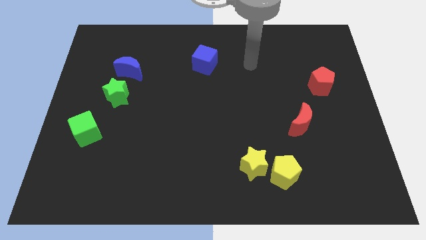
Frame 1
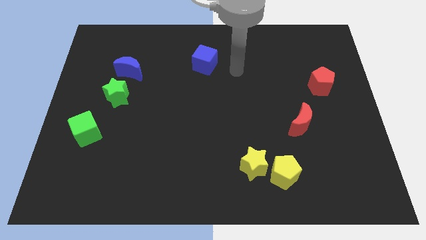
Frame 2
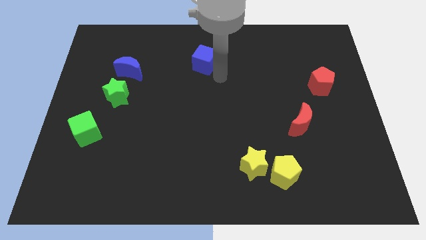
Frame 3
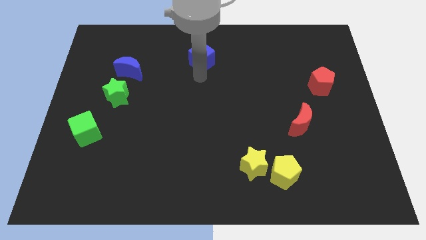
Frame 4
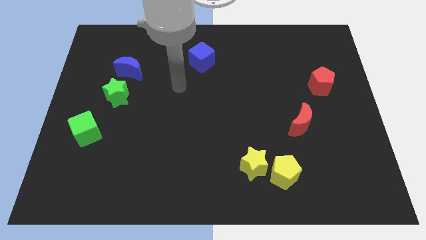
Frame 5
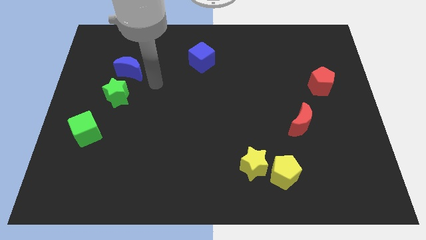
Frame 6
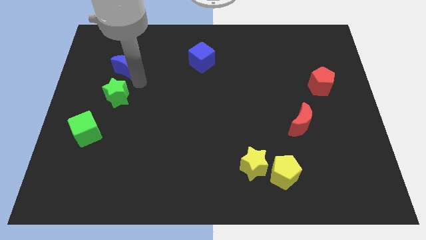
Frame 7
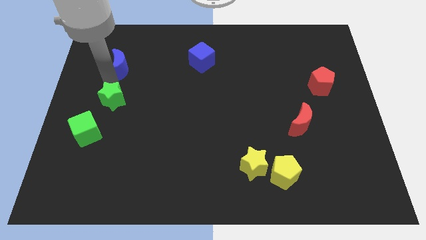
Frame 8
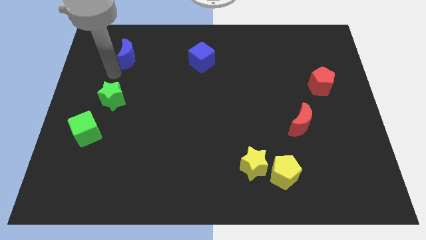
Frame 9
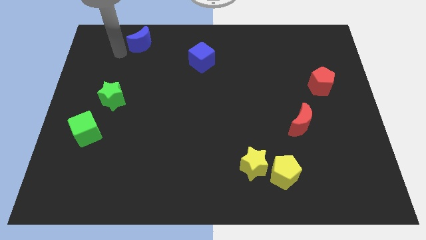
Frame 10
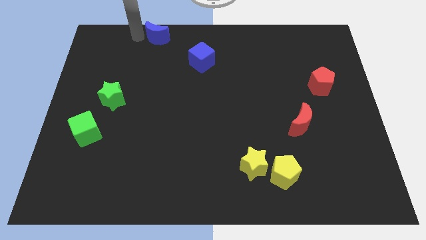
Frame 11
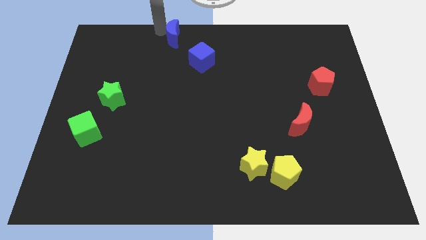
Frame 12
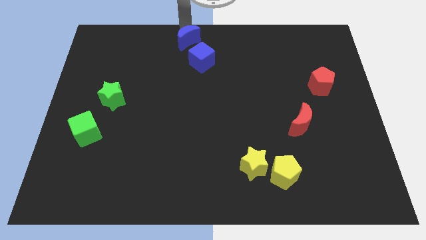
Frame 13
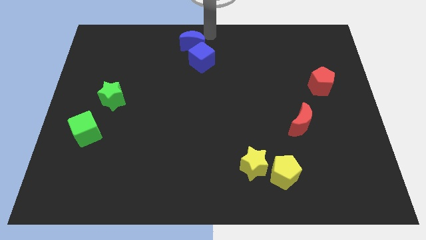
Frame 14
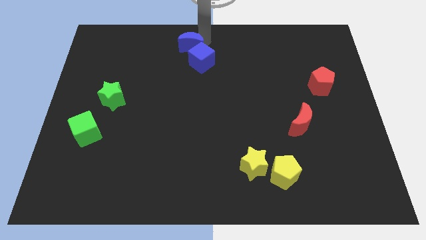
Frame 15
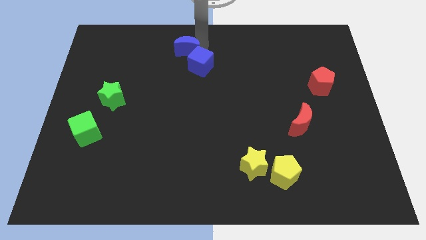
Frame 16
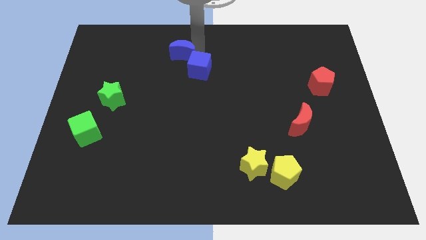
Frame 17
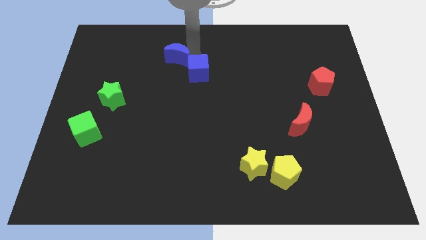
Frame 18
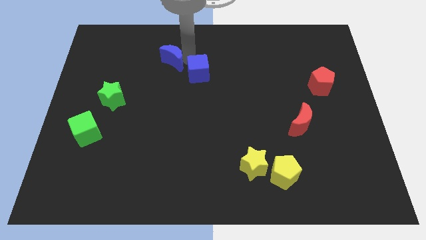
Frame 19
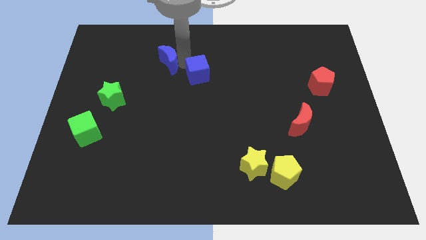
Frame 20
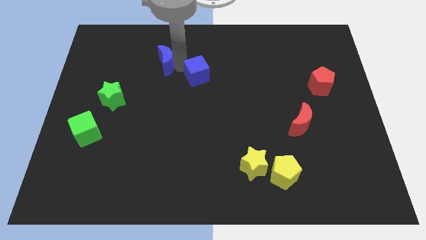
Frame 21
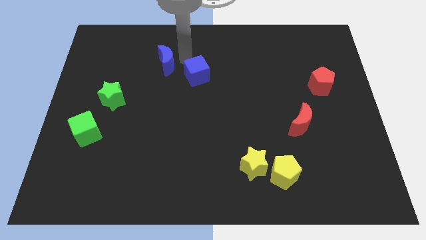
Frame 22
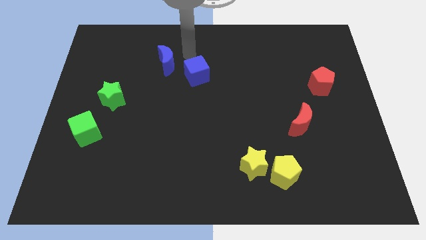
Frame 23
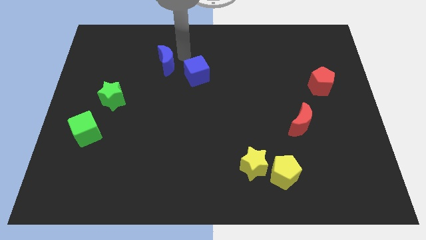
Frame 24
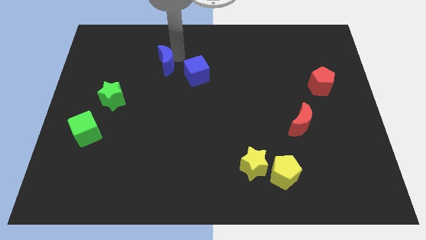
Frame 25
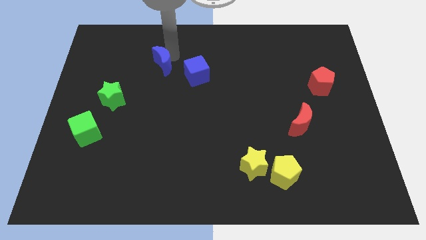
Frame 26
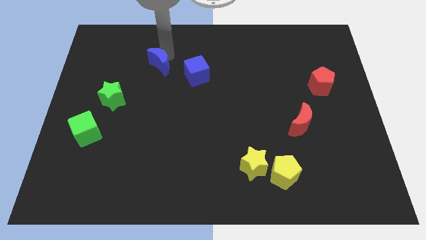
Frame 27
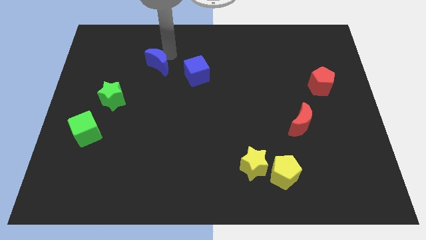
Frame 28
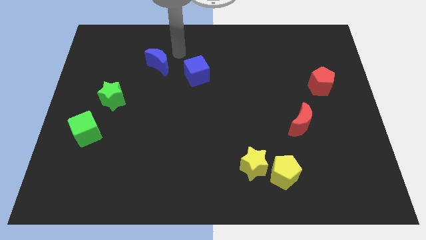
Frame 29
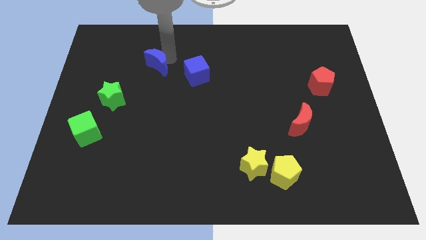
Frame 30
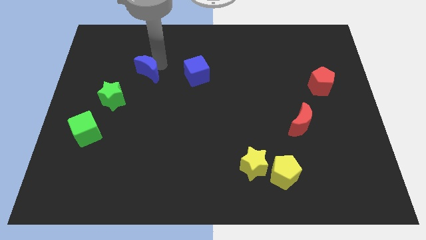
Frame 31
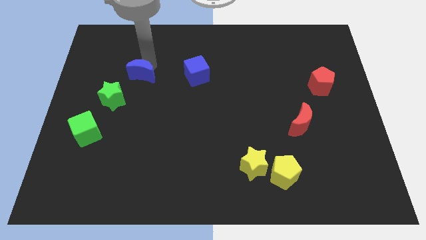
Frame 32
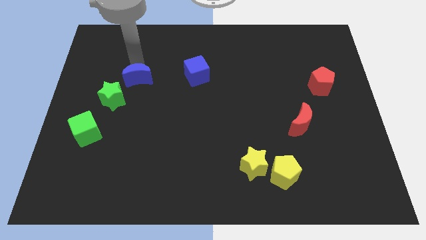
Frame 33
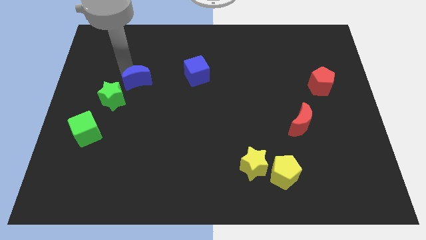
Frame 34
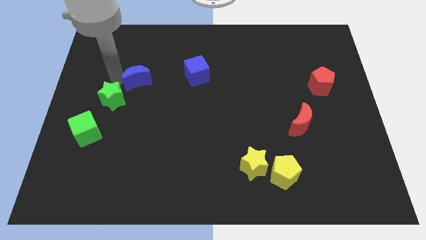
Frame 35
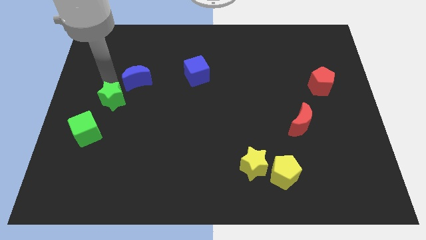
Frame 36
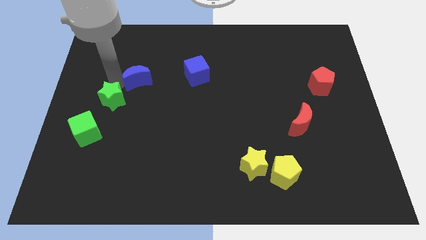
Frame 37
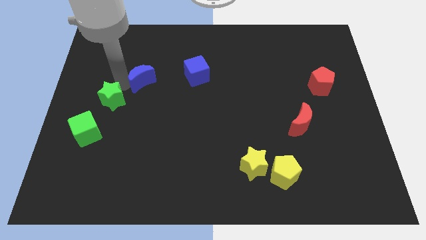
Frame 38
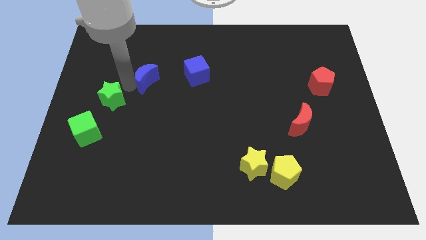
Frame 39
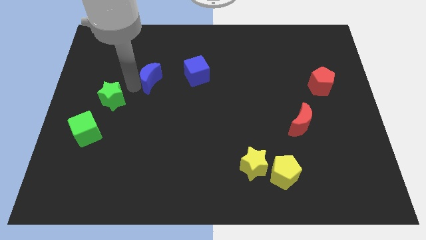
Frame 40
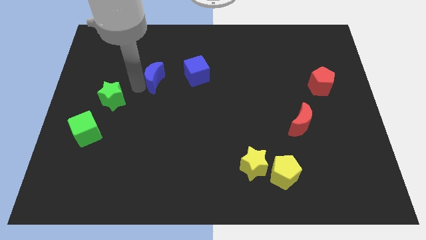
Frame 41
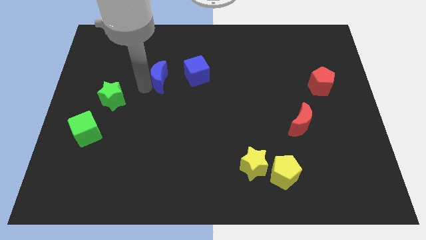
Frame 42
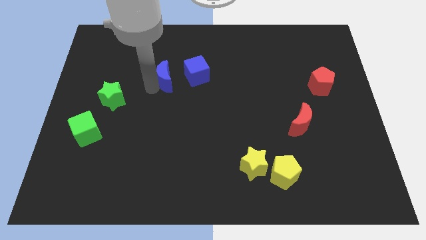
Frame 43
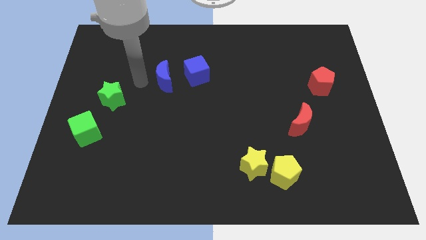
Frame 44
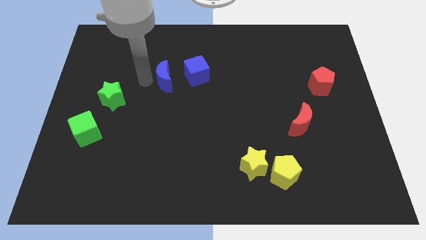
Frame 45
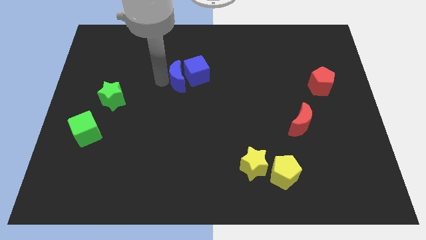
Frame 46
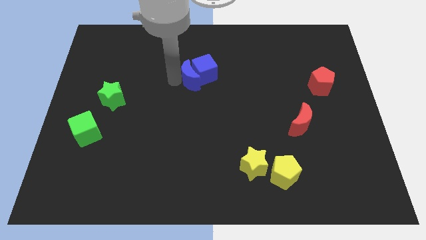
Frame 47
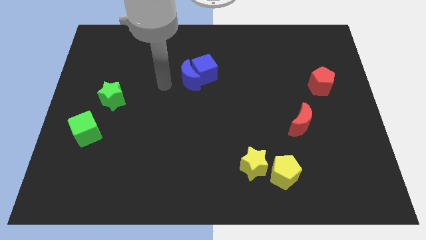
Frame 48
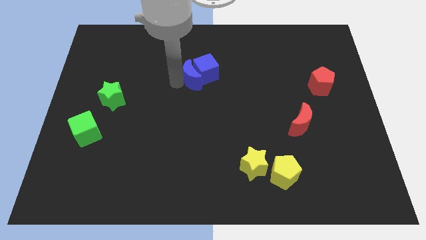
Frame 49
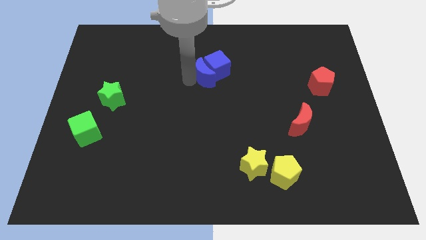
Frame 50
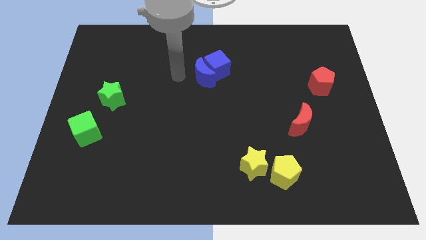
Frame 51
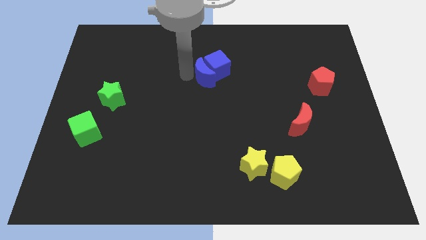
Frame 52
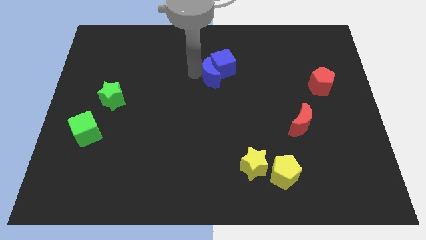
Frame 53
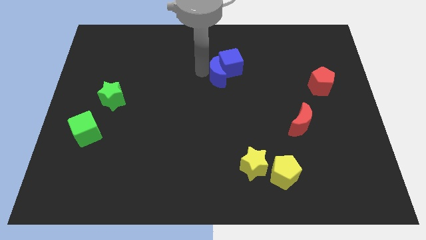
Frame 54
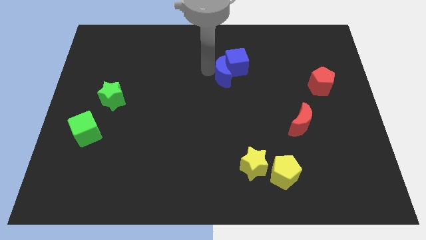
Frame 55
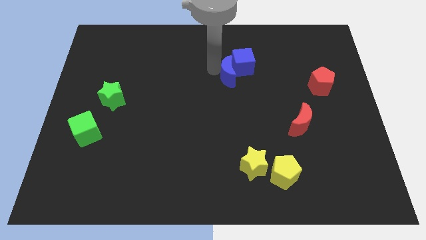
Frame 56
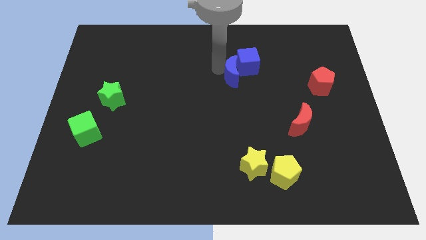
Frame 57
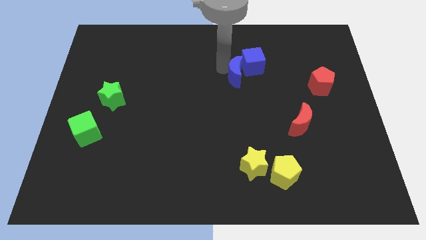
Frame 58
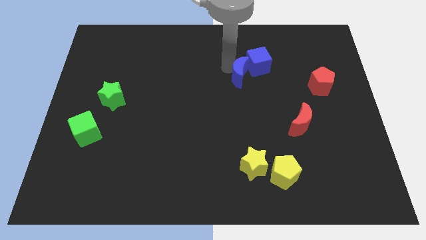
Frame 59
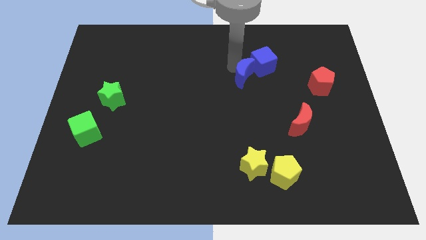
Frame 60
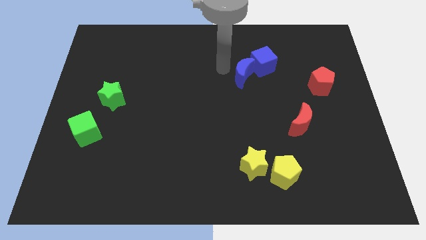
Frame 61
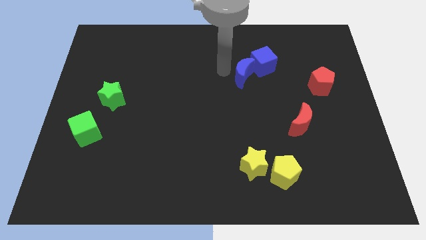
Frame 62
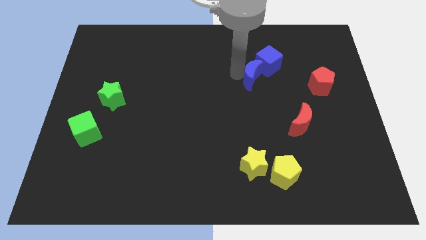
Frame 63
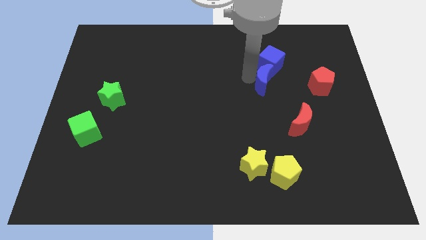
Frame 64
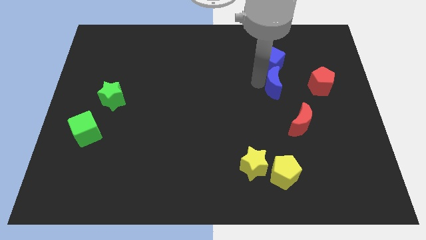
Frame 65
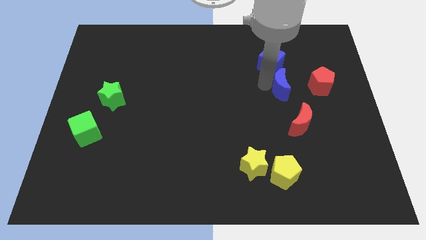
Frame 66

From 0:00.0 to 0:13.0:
push the blue moon to the top of the red moon

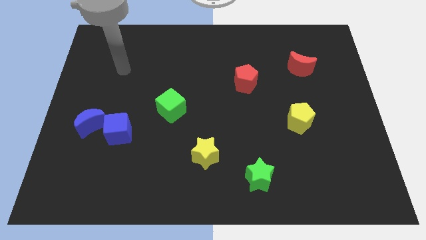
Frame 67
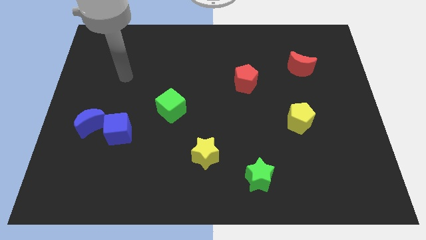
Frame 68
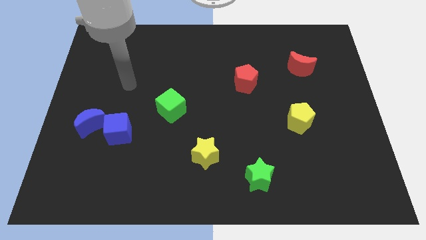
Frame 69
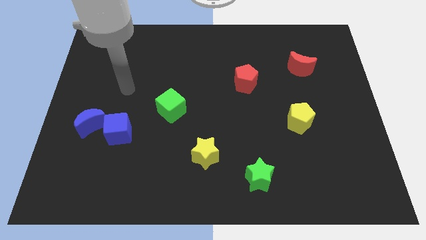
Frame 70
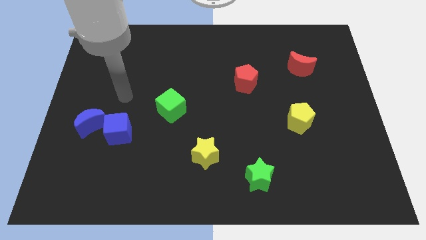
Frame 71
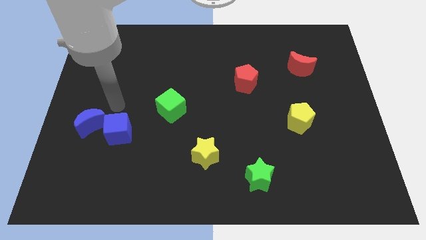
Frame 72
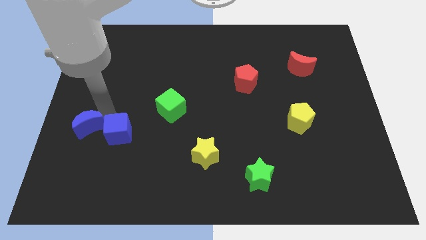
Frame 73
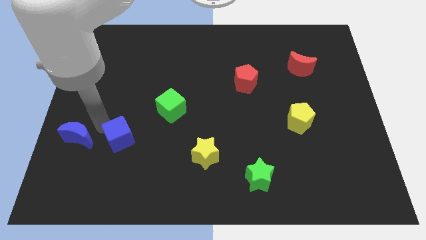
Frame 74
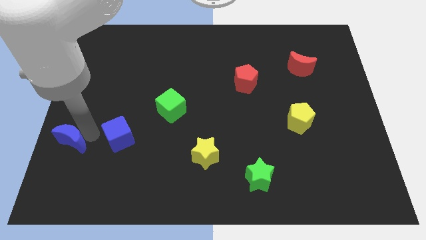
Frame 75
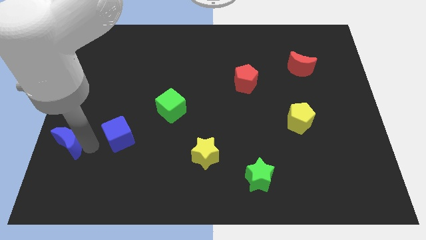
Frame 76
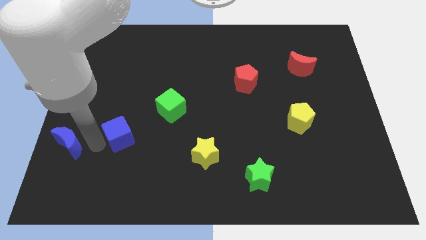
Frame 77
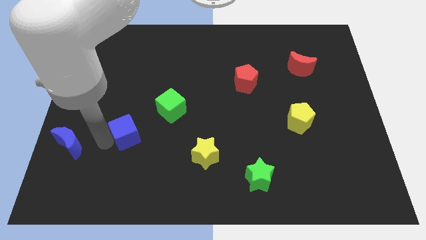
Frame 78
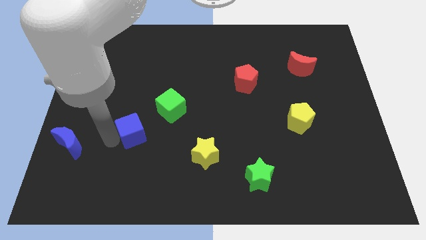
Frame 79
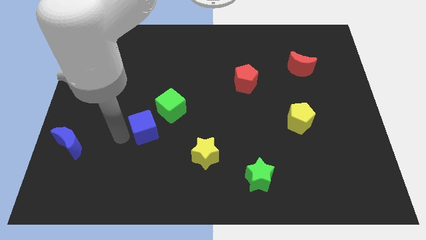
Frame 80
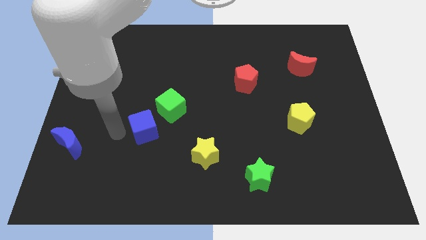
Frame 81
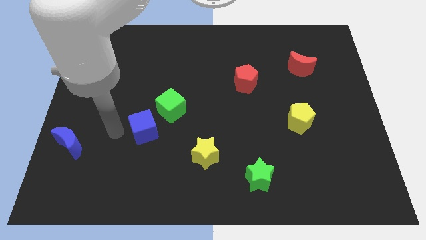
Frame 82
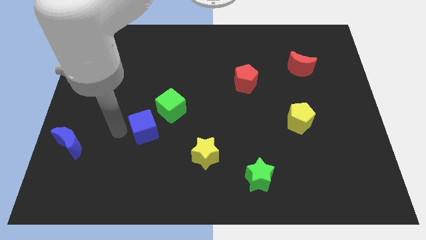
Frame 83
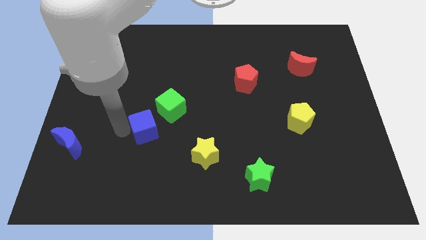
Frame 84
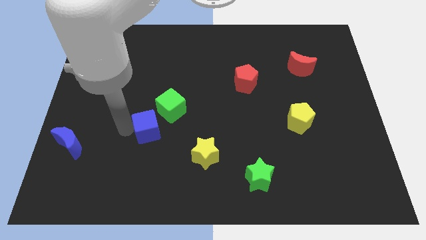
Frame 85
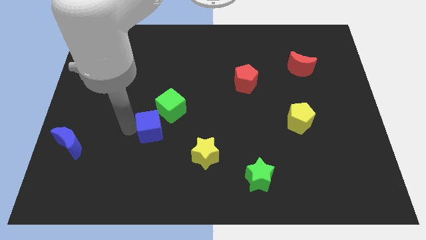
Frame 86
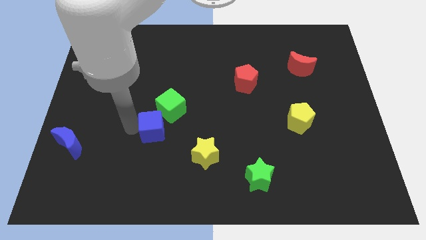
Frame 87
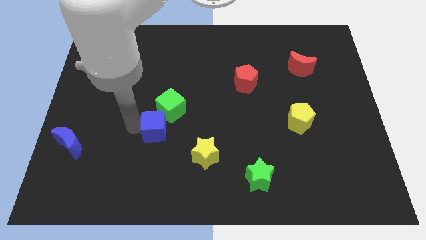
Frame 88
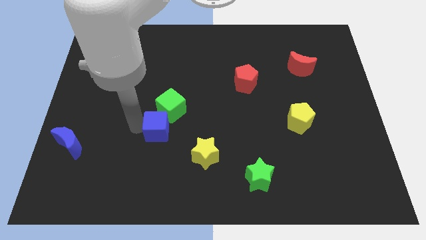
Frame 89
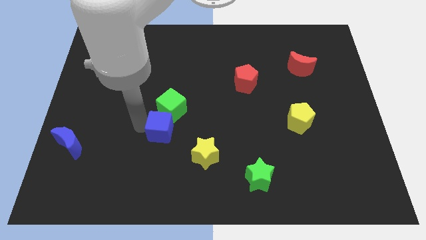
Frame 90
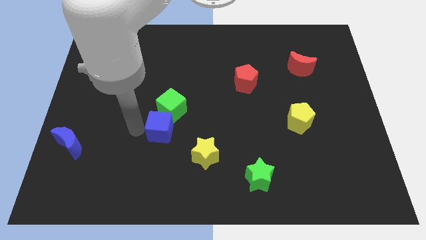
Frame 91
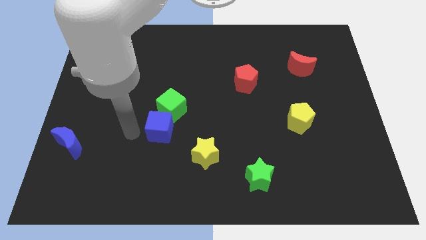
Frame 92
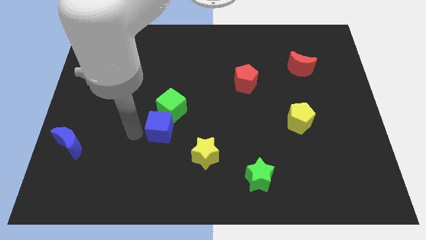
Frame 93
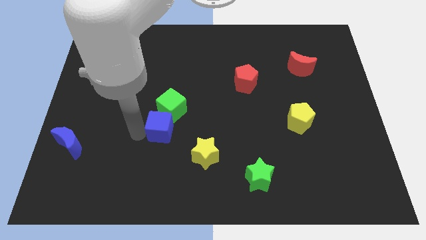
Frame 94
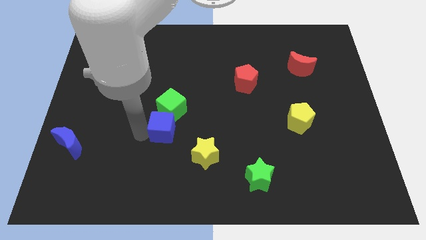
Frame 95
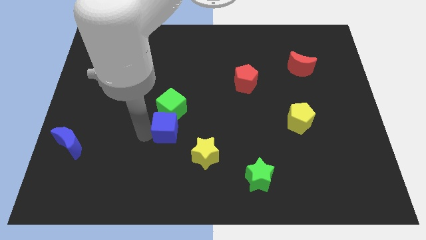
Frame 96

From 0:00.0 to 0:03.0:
move the blue cube to the bottom right of the green cube
